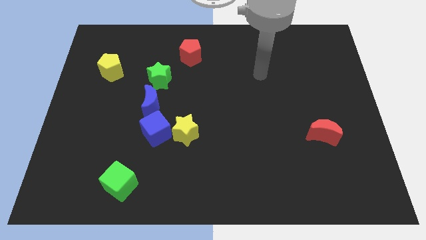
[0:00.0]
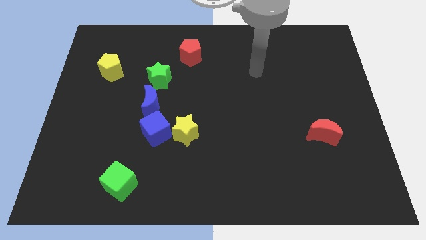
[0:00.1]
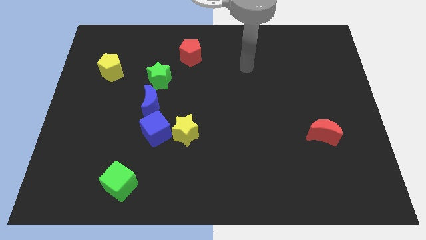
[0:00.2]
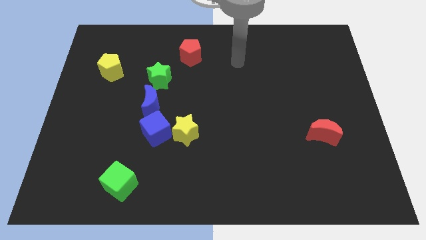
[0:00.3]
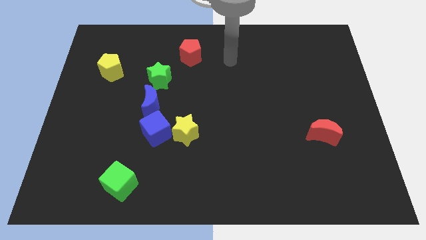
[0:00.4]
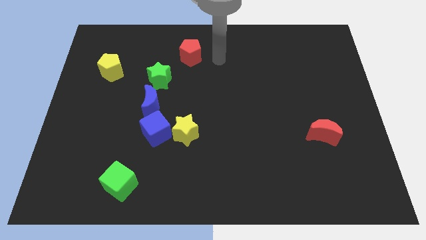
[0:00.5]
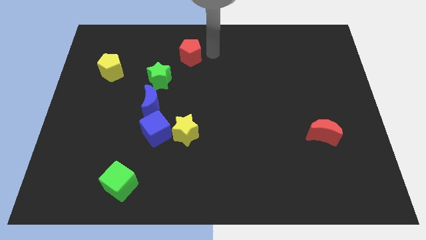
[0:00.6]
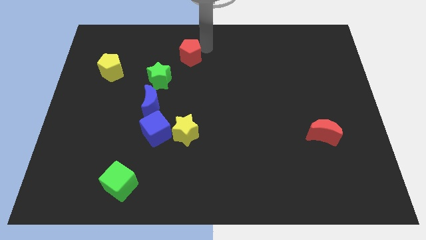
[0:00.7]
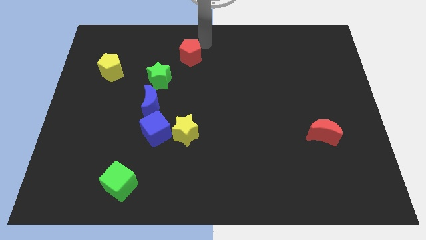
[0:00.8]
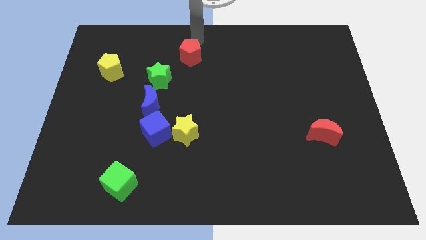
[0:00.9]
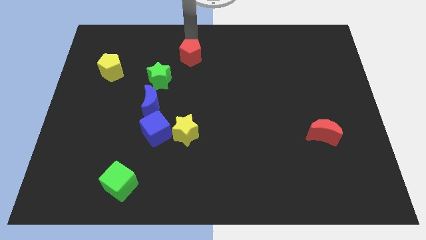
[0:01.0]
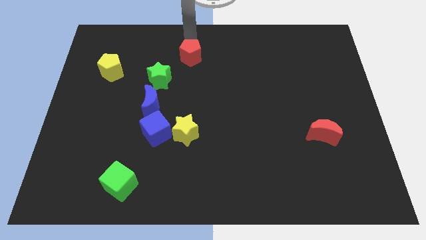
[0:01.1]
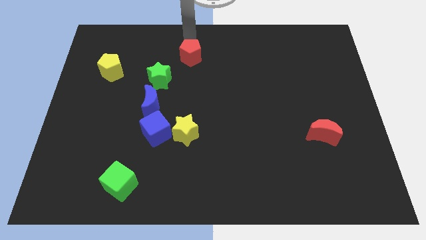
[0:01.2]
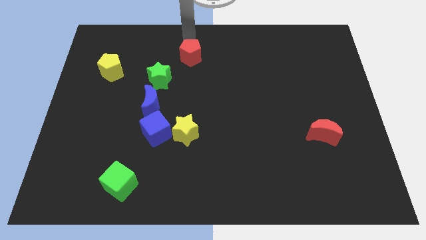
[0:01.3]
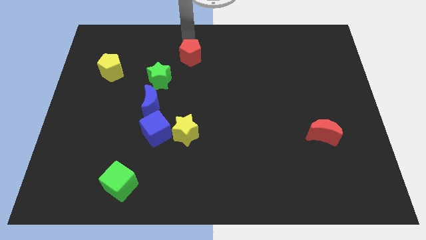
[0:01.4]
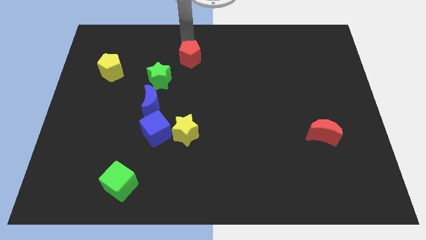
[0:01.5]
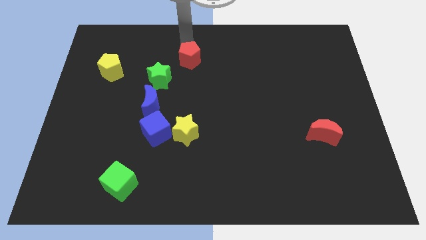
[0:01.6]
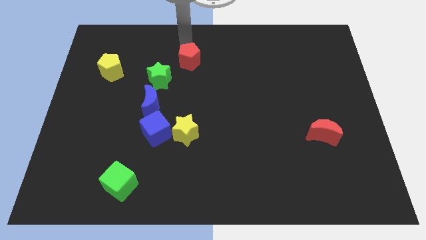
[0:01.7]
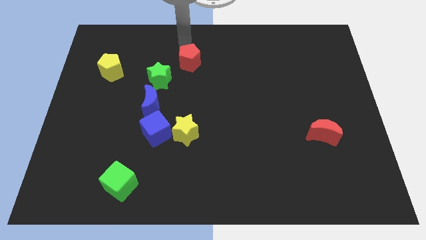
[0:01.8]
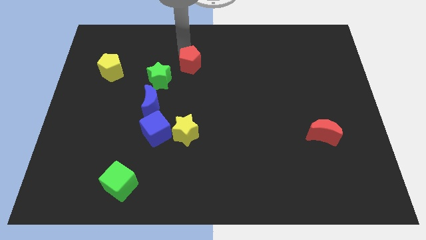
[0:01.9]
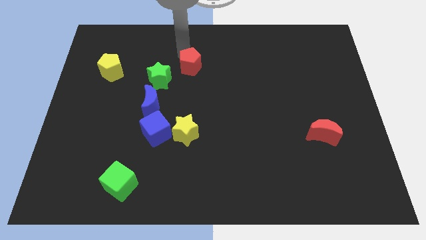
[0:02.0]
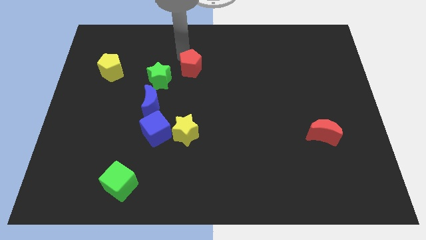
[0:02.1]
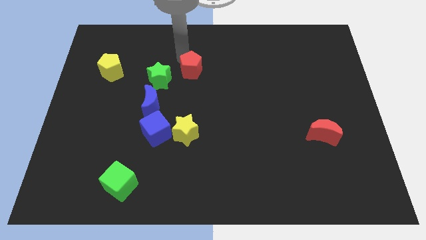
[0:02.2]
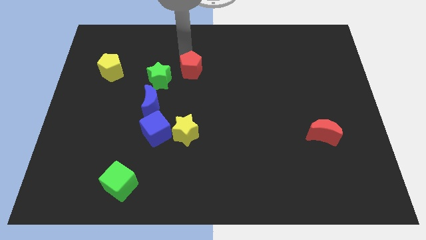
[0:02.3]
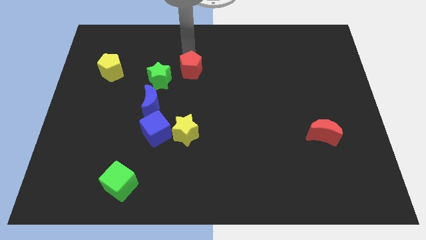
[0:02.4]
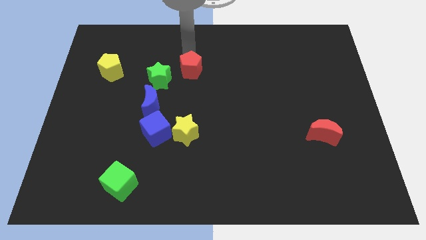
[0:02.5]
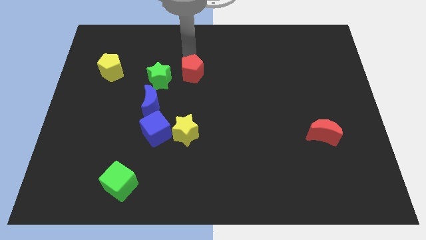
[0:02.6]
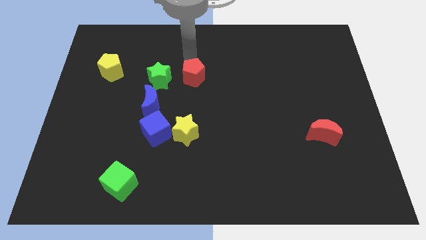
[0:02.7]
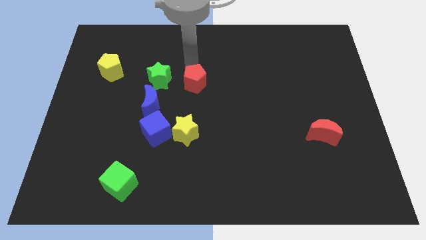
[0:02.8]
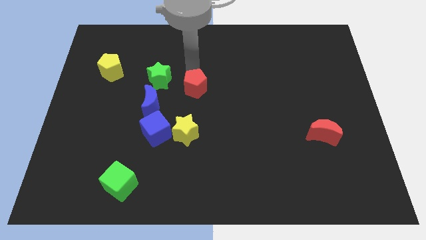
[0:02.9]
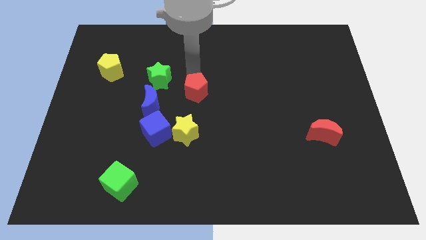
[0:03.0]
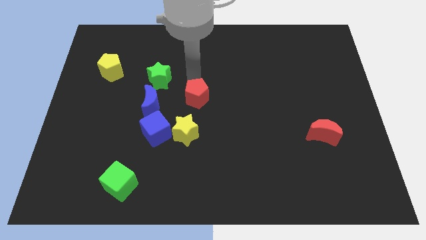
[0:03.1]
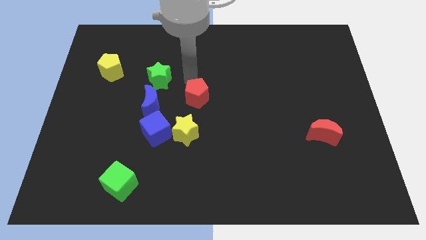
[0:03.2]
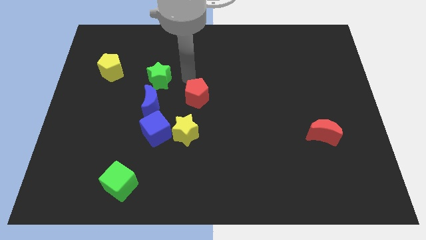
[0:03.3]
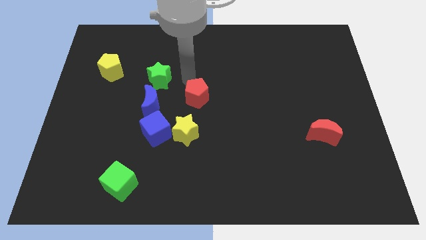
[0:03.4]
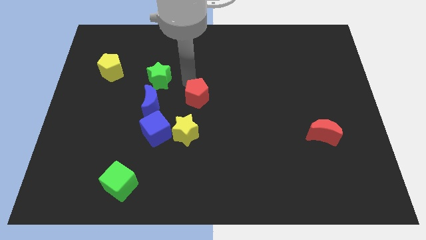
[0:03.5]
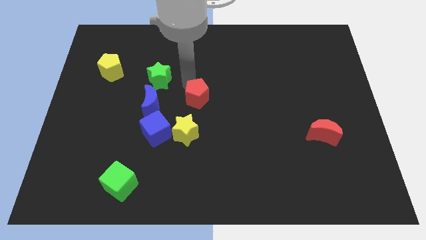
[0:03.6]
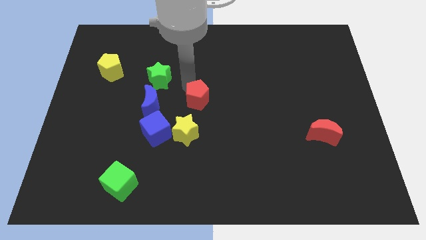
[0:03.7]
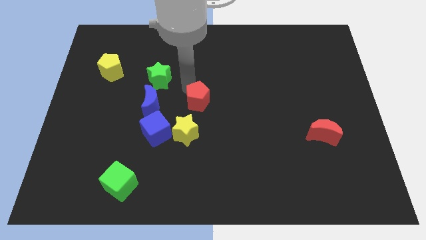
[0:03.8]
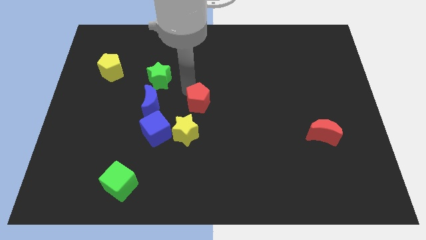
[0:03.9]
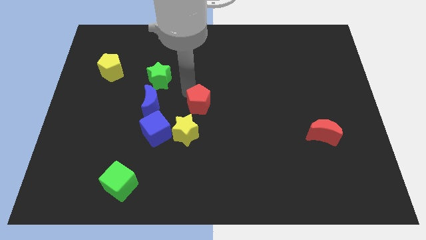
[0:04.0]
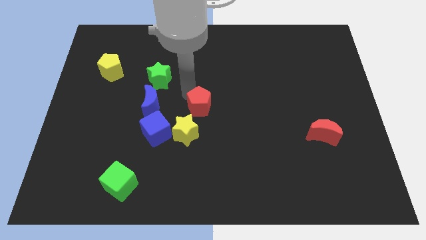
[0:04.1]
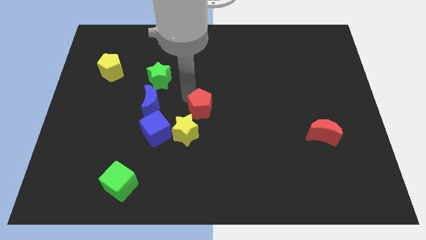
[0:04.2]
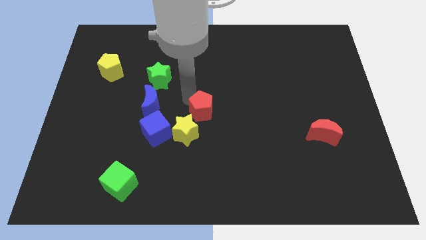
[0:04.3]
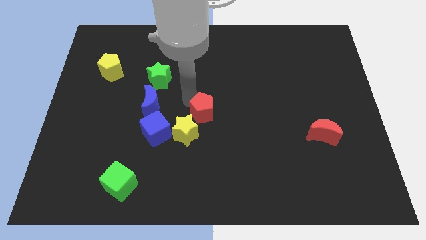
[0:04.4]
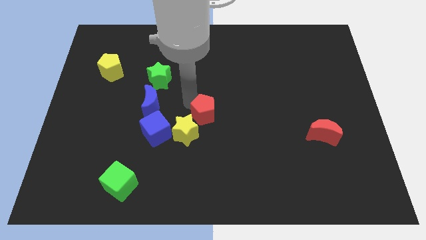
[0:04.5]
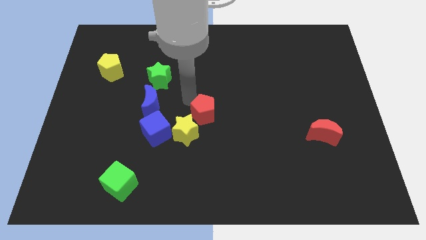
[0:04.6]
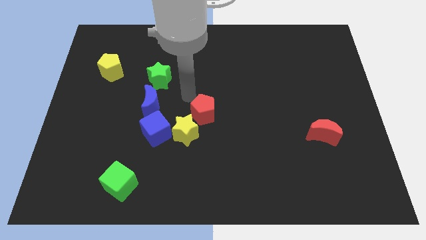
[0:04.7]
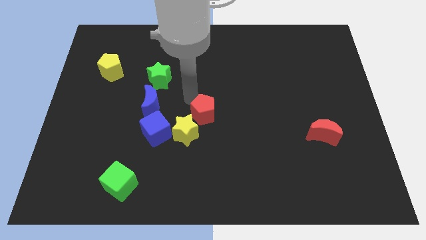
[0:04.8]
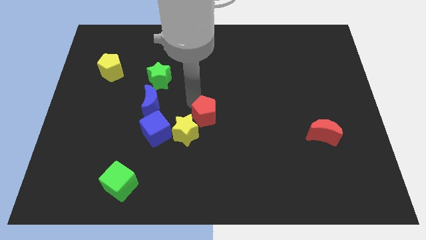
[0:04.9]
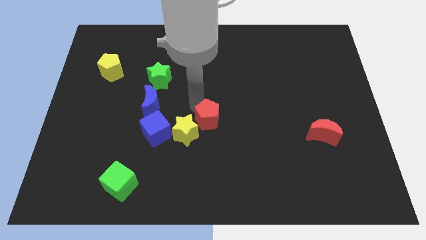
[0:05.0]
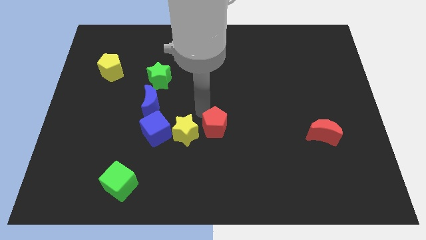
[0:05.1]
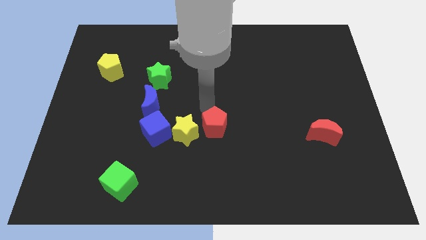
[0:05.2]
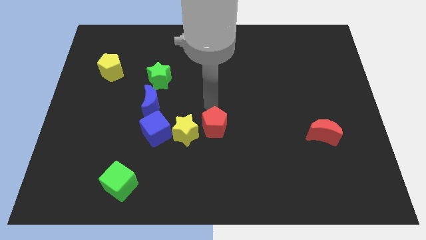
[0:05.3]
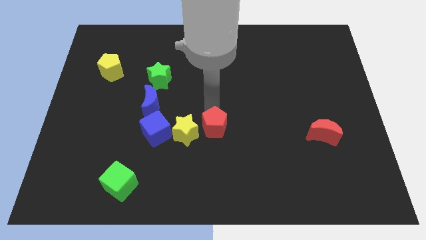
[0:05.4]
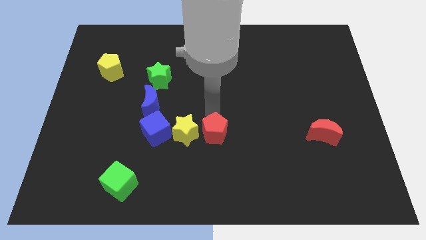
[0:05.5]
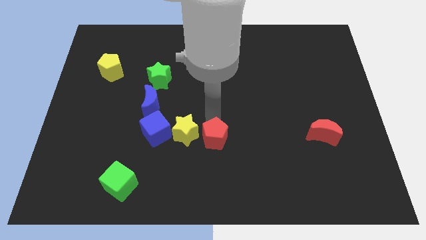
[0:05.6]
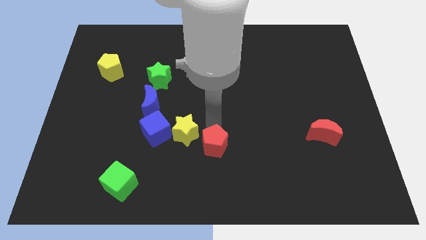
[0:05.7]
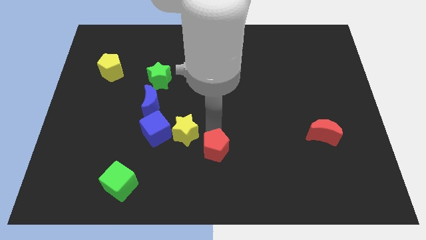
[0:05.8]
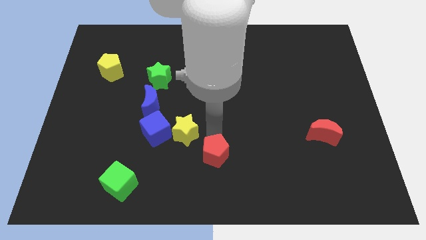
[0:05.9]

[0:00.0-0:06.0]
slide the red pentagon to the bottom side
